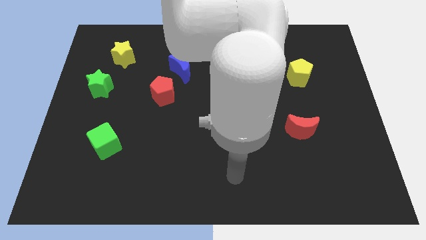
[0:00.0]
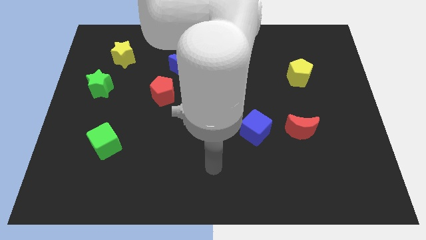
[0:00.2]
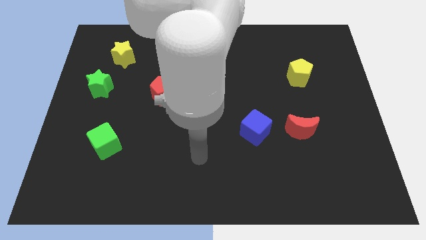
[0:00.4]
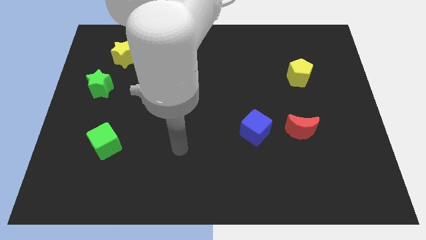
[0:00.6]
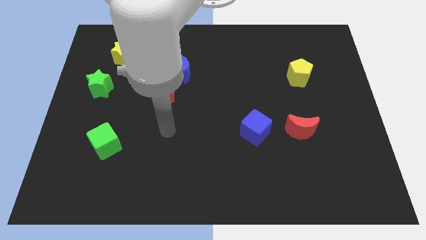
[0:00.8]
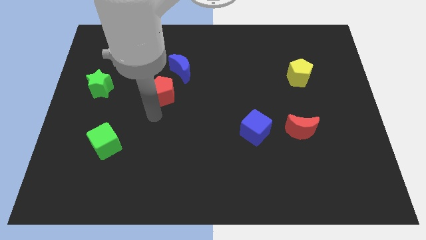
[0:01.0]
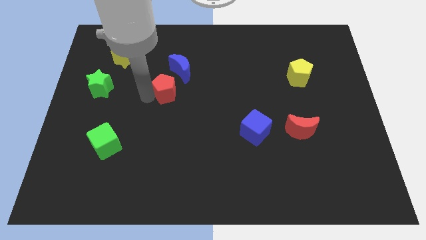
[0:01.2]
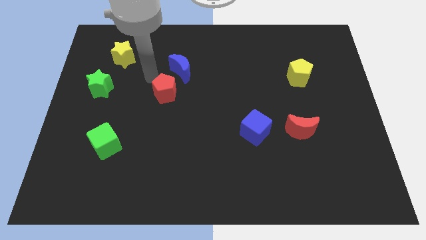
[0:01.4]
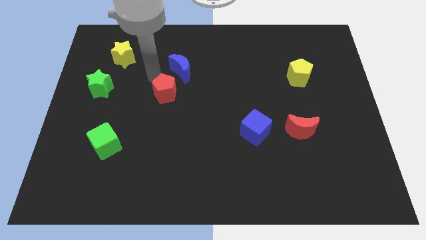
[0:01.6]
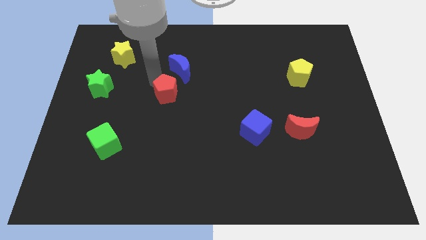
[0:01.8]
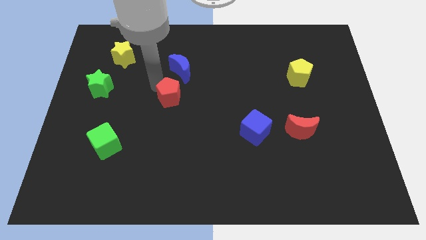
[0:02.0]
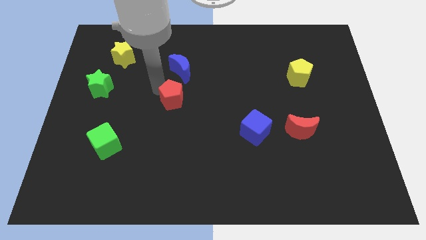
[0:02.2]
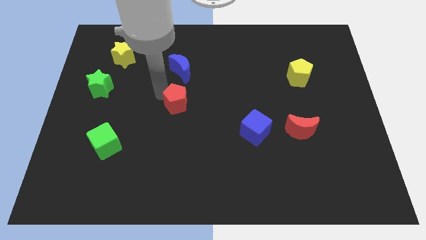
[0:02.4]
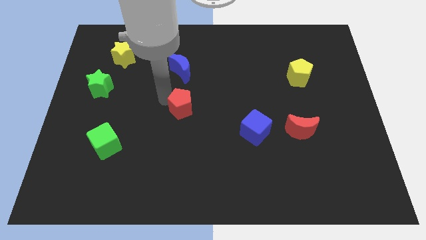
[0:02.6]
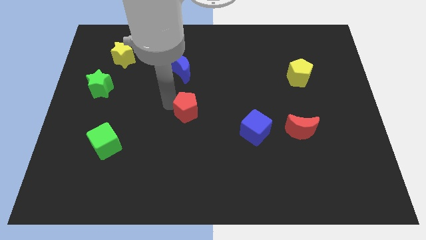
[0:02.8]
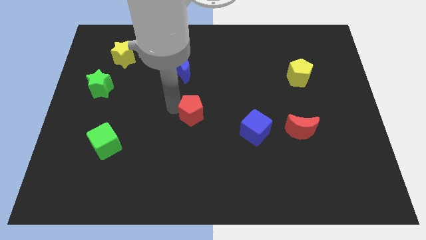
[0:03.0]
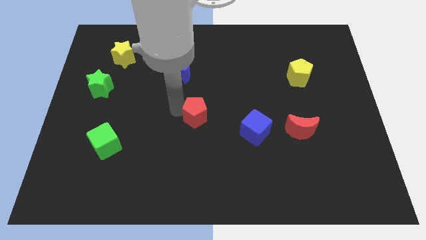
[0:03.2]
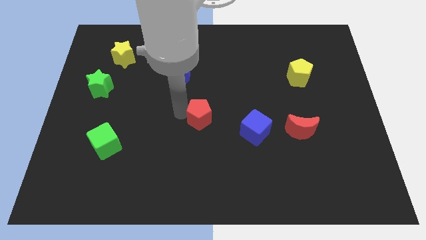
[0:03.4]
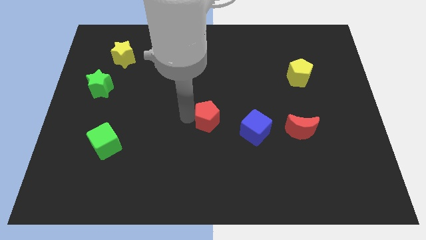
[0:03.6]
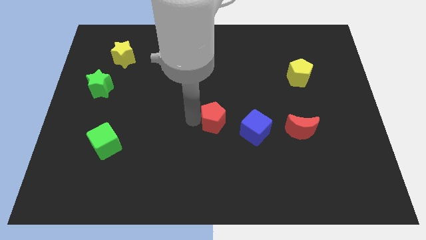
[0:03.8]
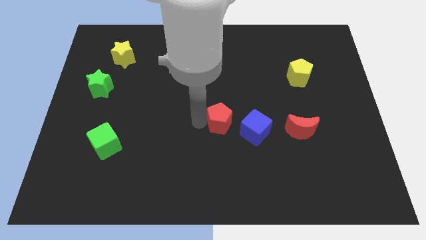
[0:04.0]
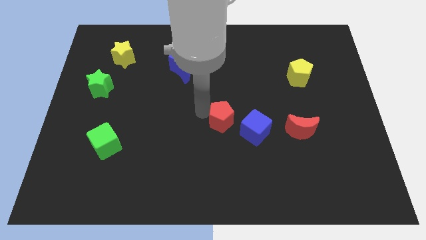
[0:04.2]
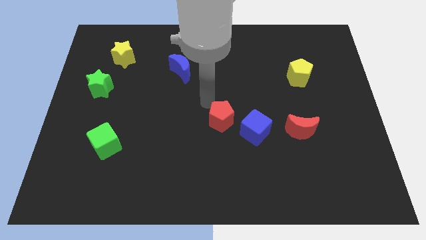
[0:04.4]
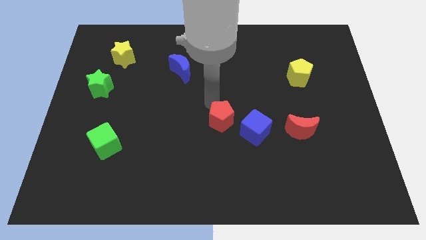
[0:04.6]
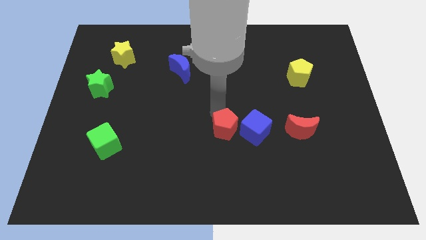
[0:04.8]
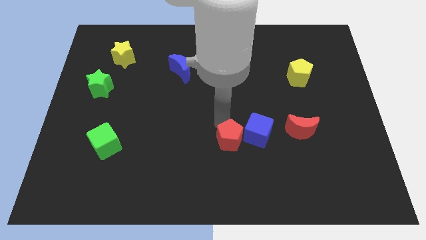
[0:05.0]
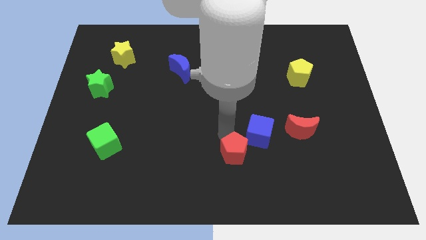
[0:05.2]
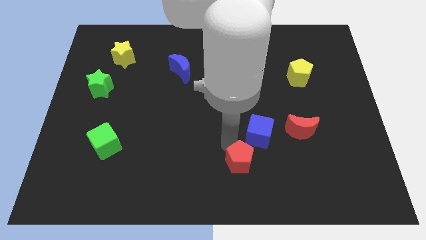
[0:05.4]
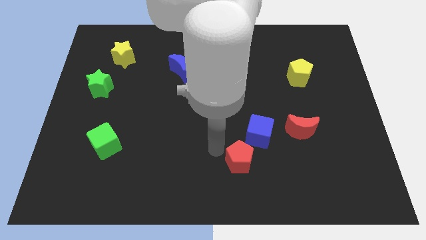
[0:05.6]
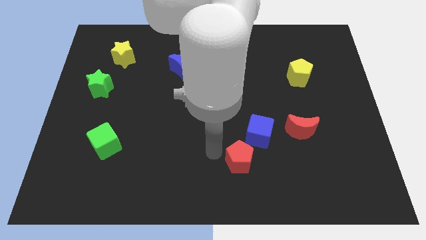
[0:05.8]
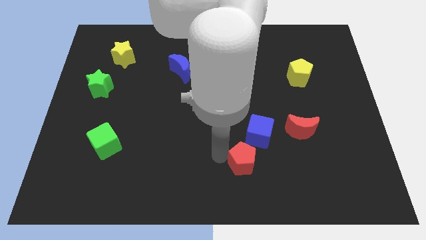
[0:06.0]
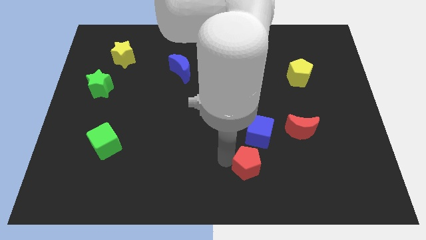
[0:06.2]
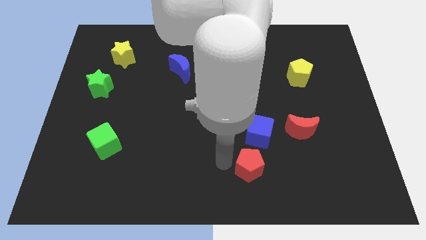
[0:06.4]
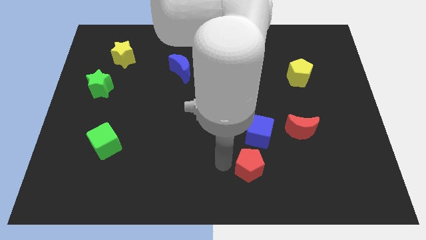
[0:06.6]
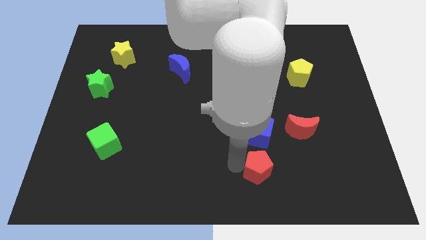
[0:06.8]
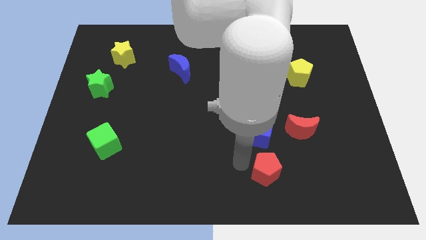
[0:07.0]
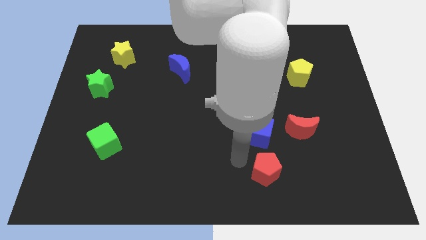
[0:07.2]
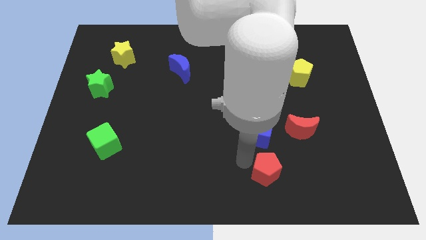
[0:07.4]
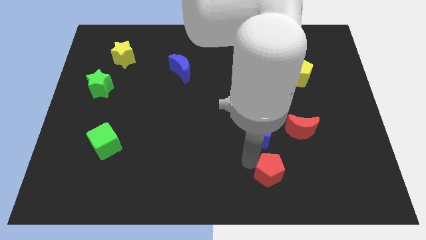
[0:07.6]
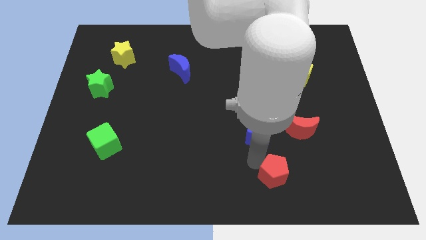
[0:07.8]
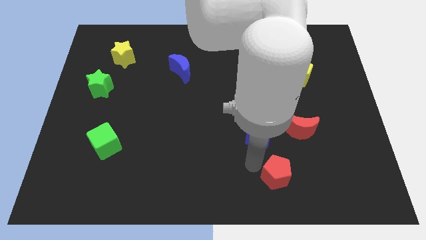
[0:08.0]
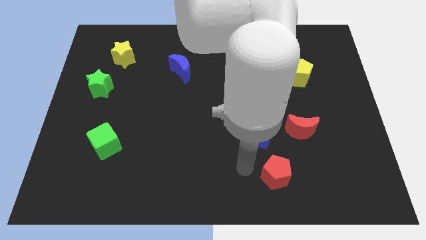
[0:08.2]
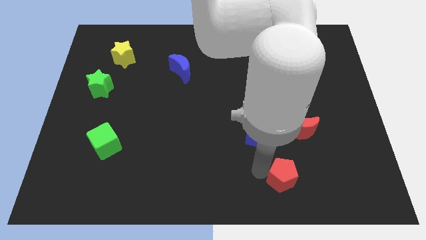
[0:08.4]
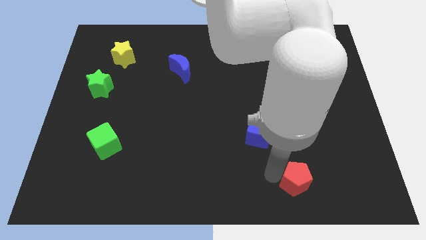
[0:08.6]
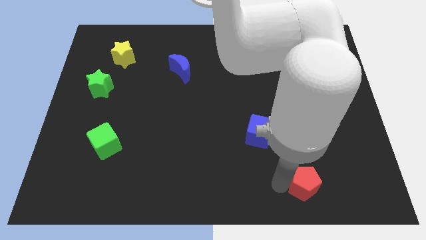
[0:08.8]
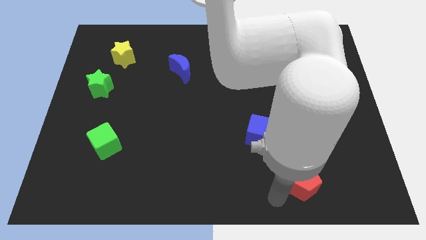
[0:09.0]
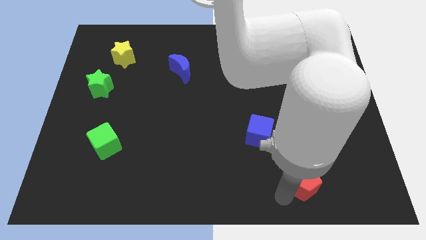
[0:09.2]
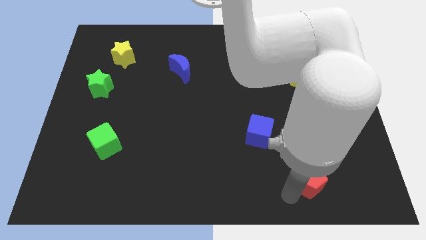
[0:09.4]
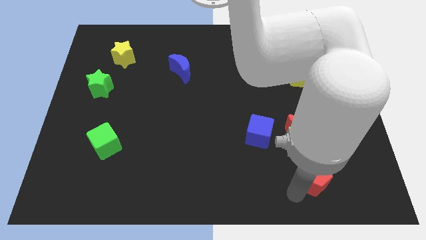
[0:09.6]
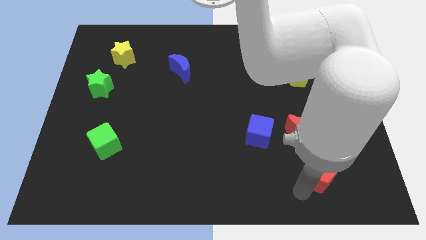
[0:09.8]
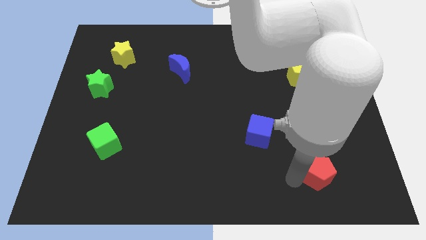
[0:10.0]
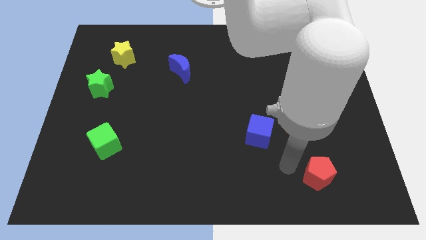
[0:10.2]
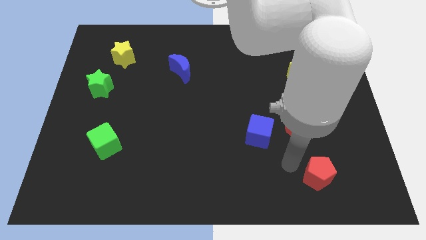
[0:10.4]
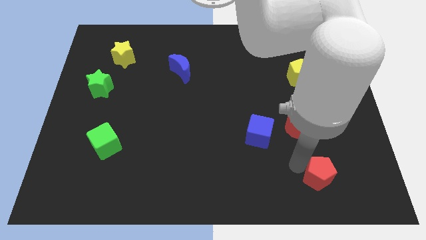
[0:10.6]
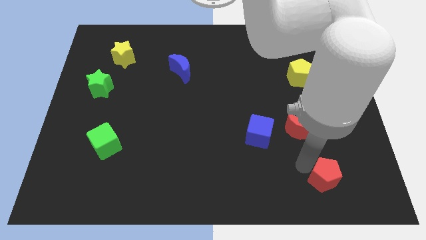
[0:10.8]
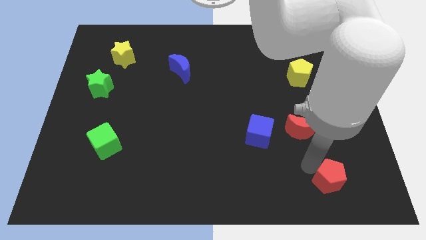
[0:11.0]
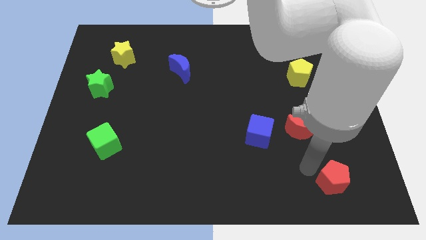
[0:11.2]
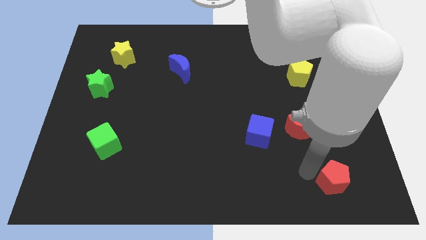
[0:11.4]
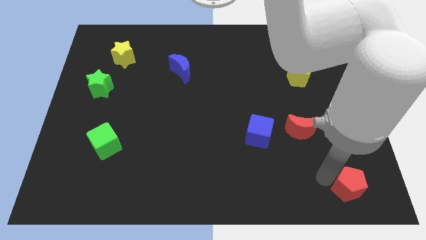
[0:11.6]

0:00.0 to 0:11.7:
put the red pentagon to the bottom right corner
